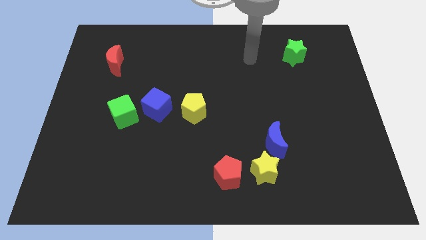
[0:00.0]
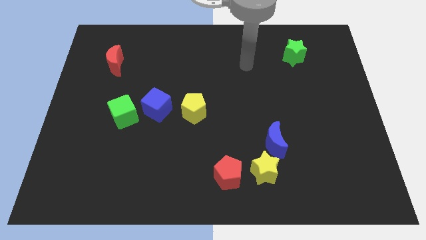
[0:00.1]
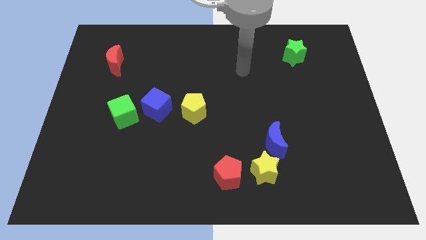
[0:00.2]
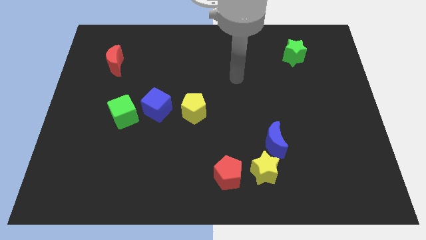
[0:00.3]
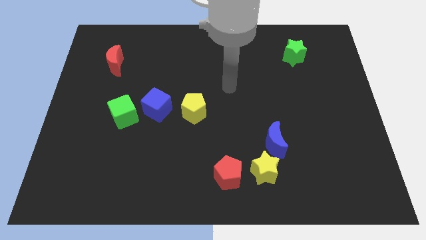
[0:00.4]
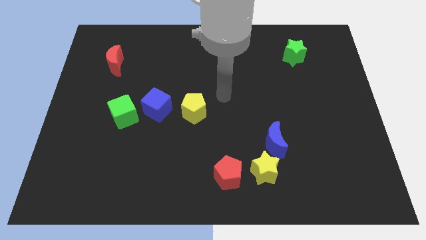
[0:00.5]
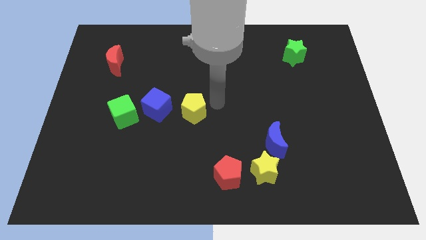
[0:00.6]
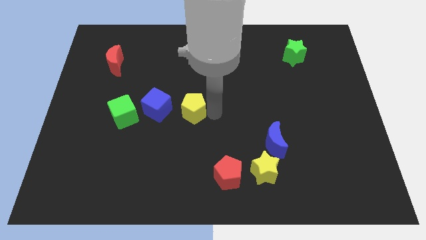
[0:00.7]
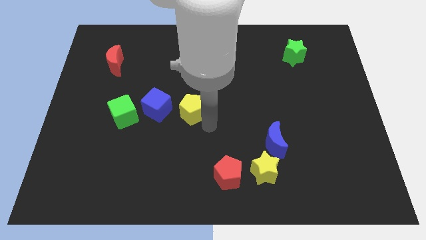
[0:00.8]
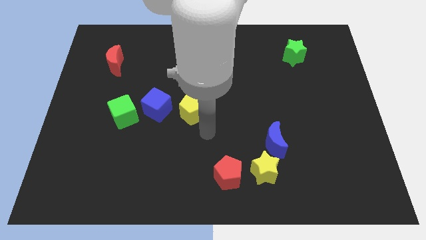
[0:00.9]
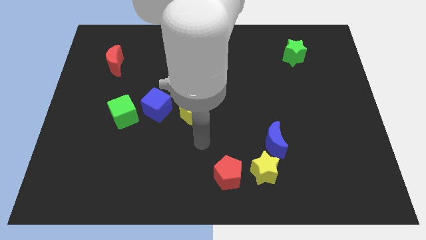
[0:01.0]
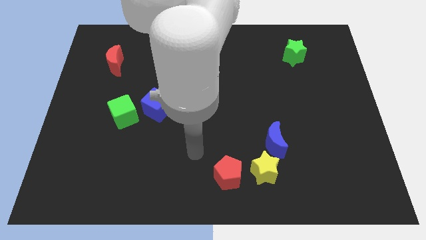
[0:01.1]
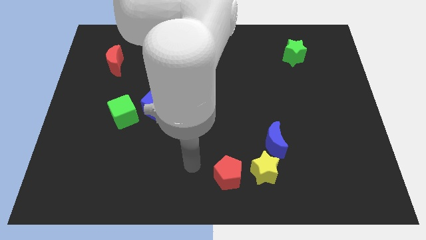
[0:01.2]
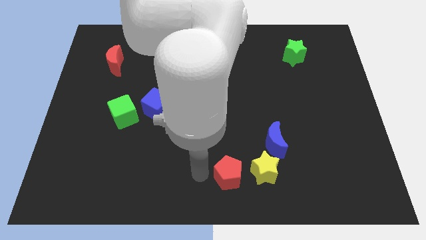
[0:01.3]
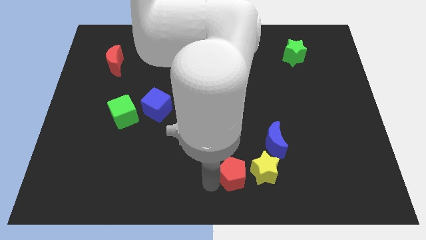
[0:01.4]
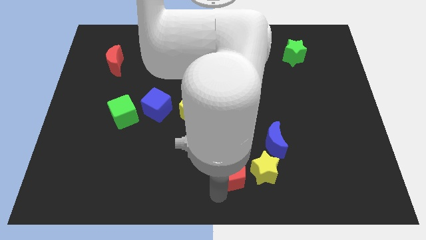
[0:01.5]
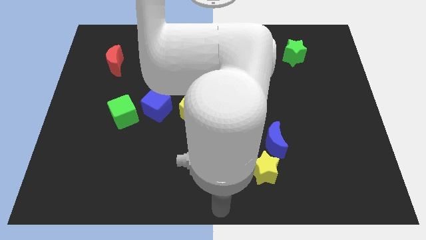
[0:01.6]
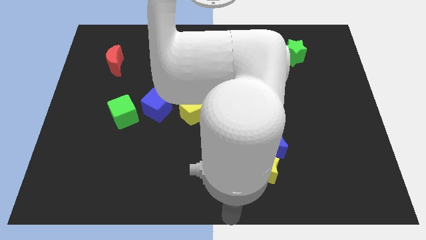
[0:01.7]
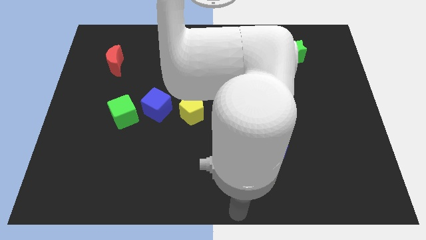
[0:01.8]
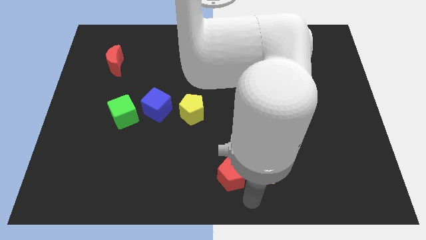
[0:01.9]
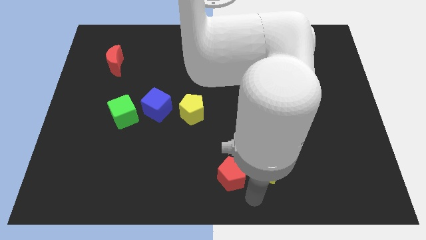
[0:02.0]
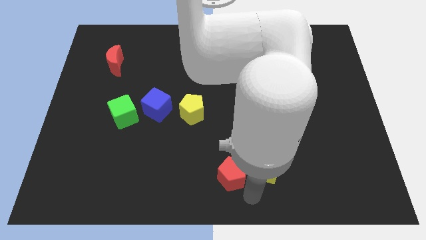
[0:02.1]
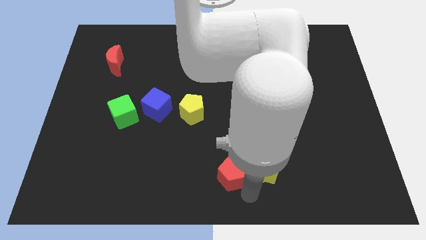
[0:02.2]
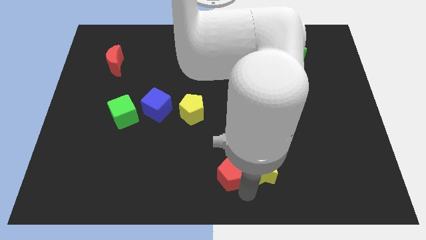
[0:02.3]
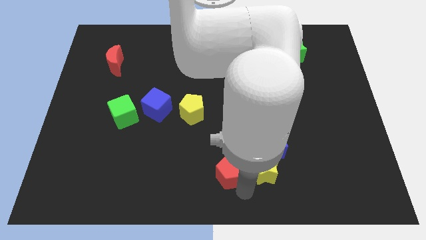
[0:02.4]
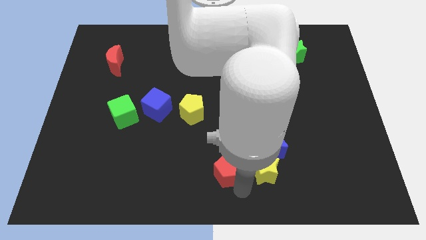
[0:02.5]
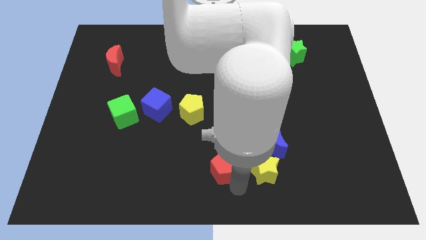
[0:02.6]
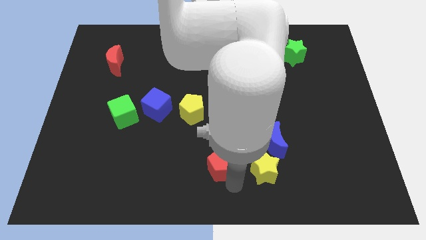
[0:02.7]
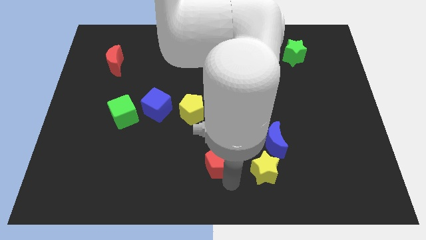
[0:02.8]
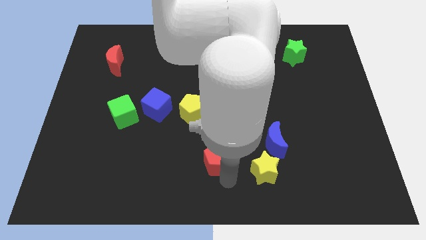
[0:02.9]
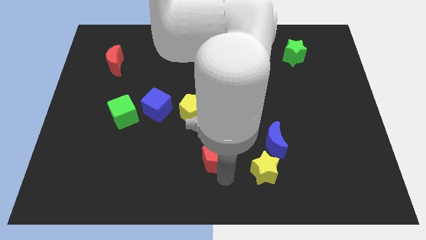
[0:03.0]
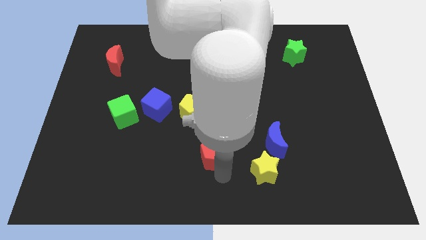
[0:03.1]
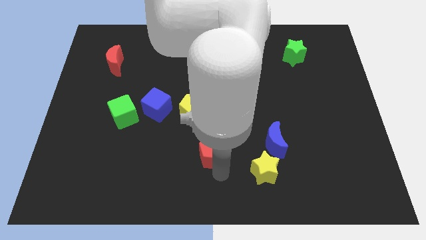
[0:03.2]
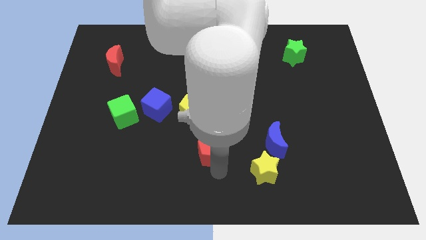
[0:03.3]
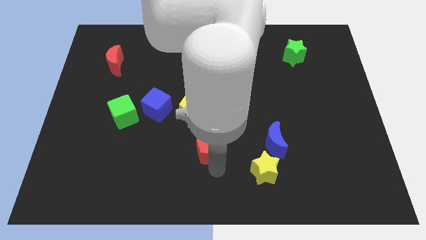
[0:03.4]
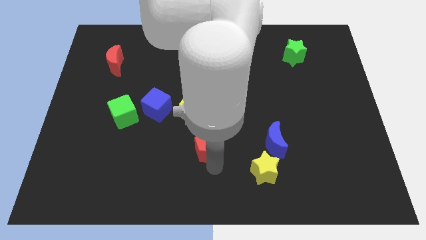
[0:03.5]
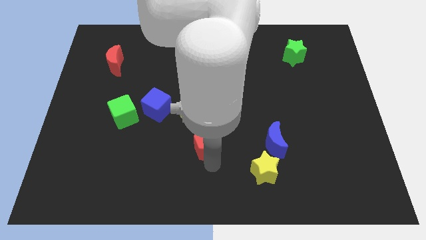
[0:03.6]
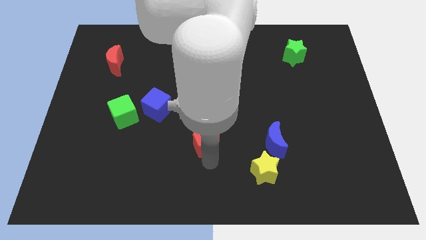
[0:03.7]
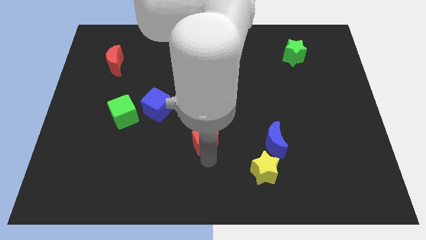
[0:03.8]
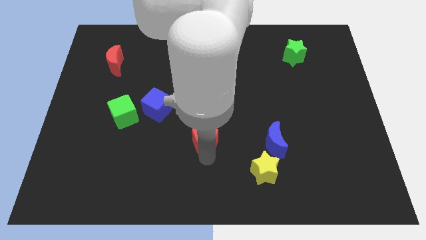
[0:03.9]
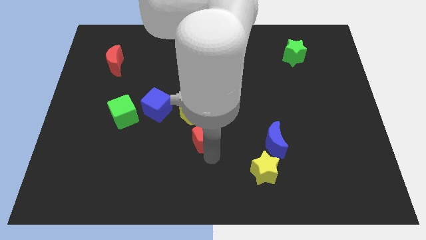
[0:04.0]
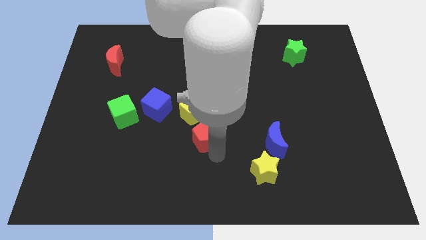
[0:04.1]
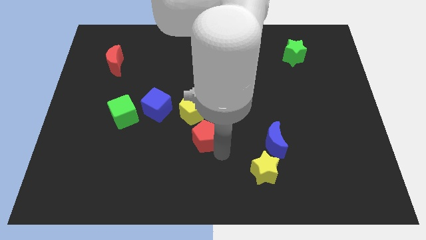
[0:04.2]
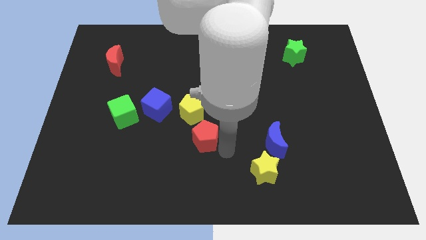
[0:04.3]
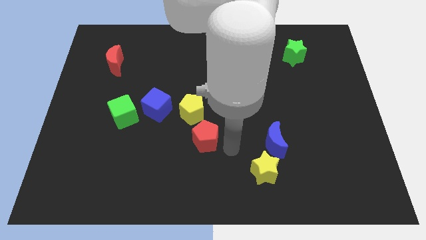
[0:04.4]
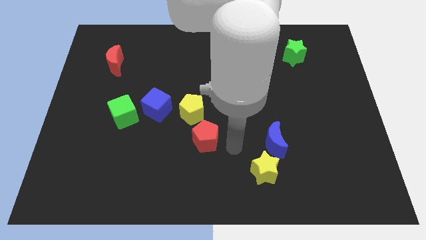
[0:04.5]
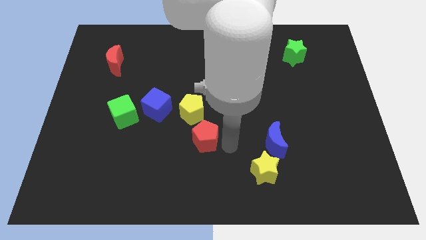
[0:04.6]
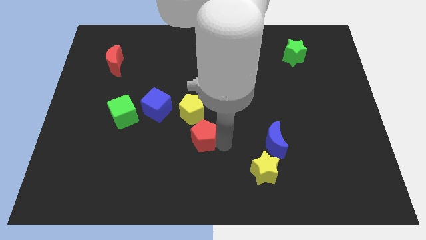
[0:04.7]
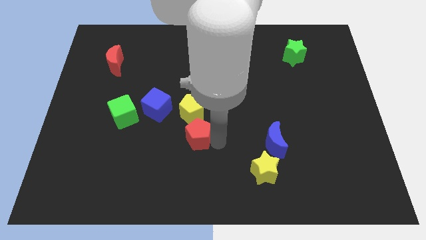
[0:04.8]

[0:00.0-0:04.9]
slide the red pentagon to the bottom right side of the blue cube

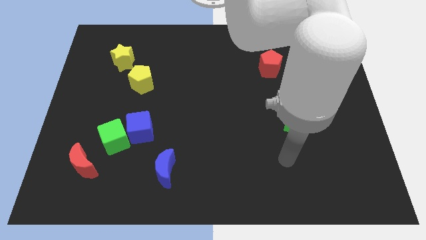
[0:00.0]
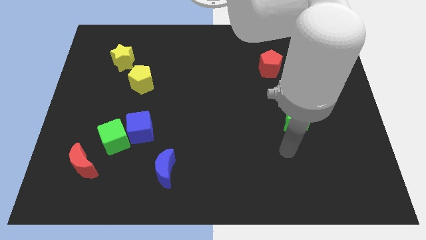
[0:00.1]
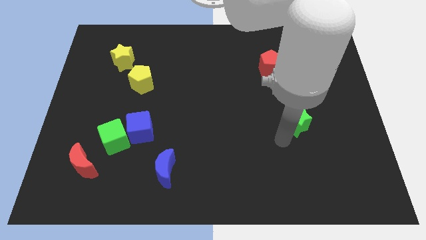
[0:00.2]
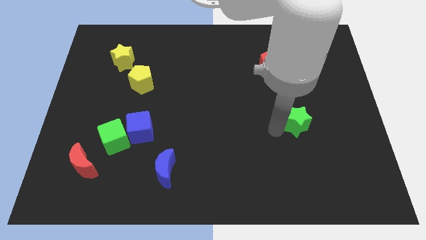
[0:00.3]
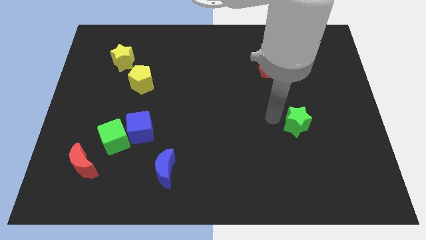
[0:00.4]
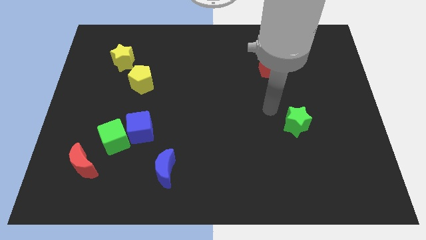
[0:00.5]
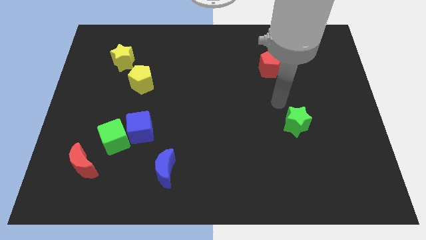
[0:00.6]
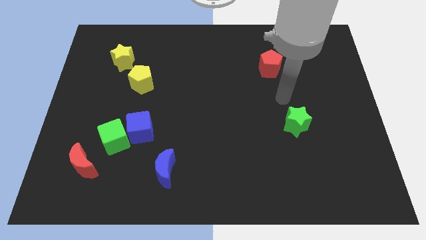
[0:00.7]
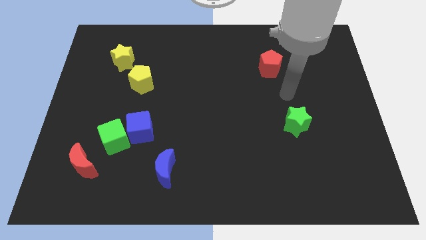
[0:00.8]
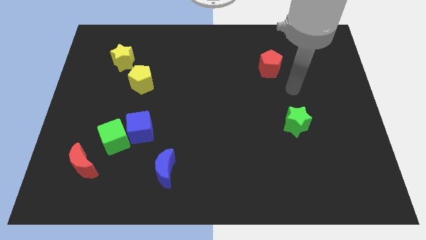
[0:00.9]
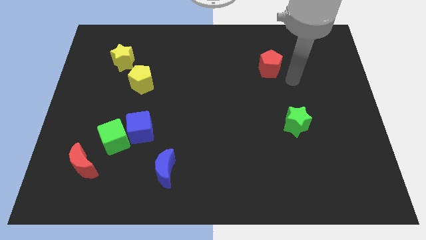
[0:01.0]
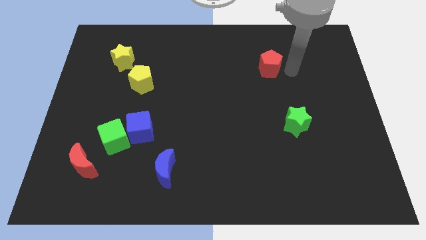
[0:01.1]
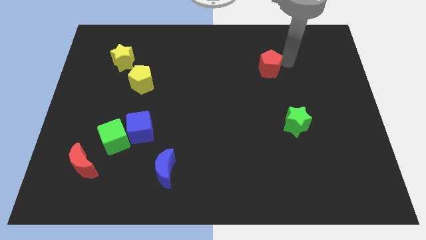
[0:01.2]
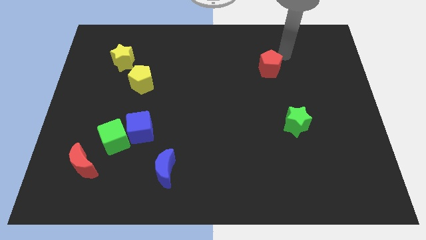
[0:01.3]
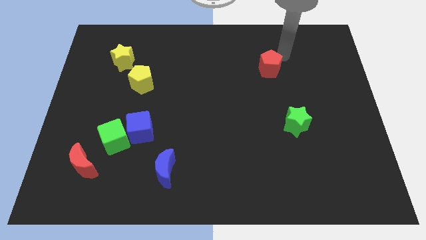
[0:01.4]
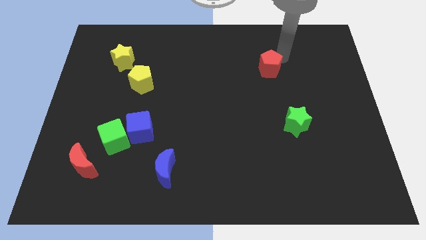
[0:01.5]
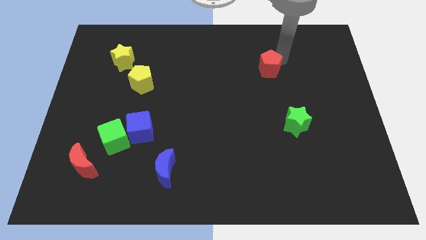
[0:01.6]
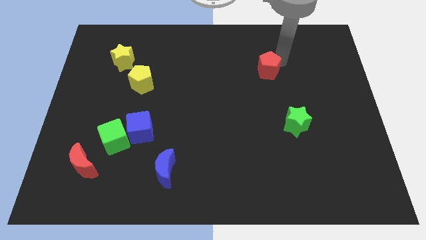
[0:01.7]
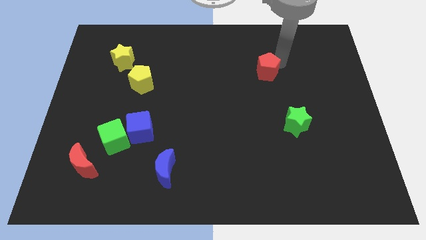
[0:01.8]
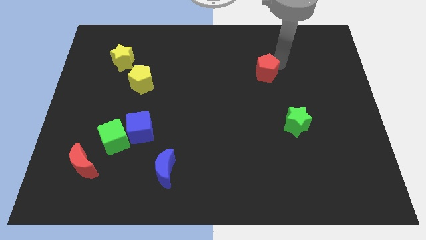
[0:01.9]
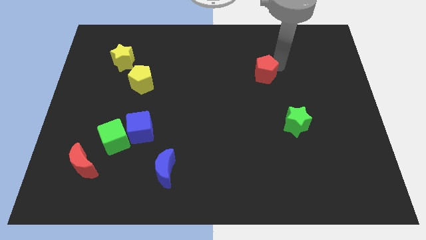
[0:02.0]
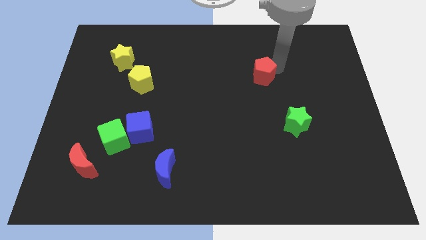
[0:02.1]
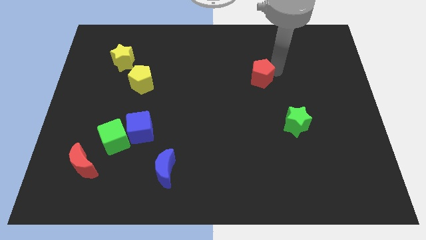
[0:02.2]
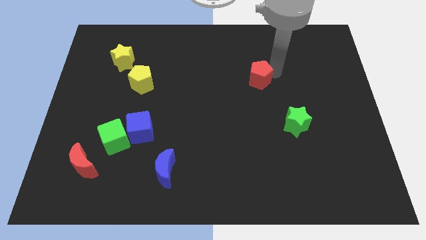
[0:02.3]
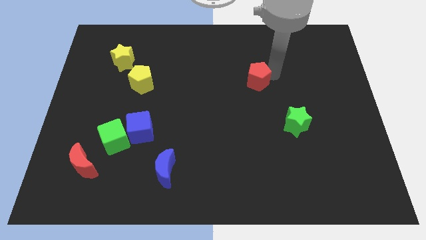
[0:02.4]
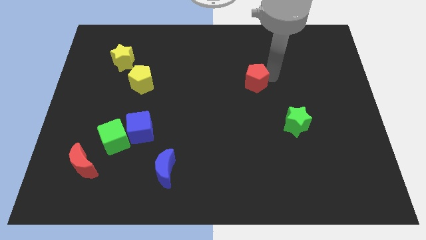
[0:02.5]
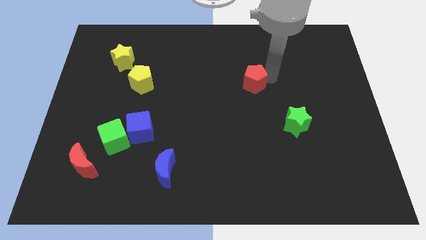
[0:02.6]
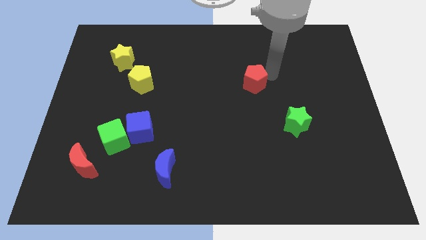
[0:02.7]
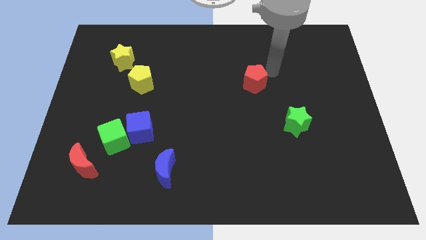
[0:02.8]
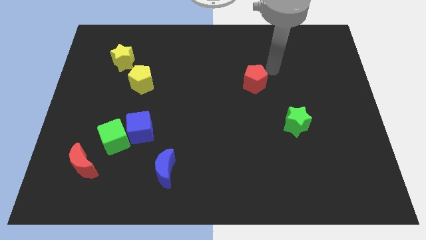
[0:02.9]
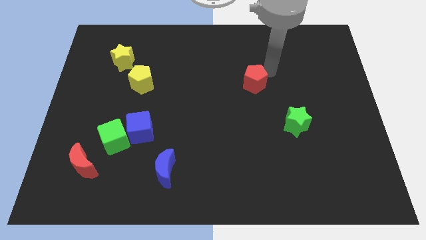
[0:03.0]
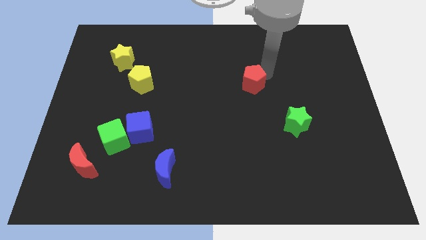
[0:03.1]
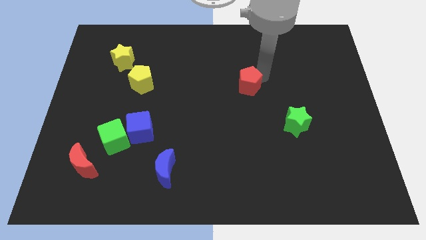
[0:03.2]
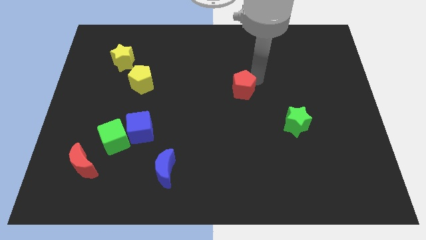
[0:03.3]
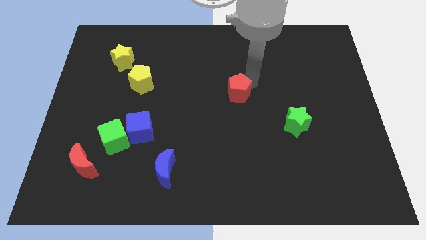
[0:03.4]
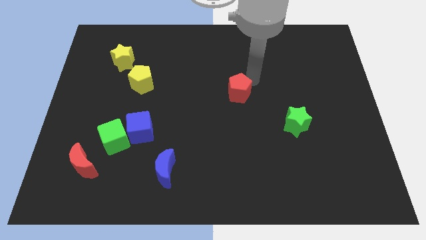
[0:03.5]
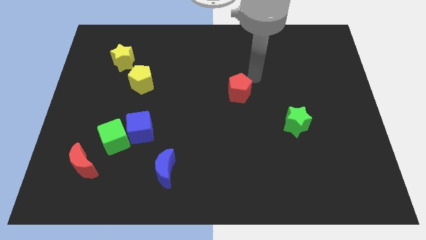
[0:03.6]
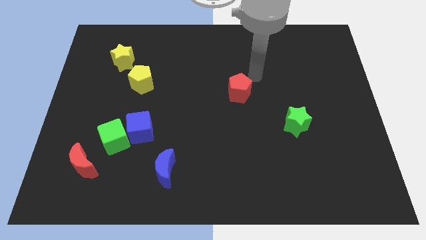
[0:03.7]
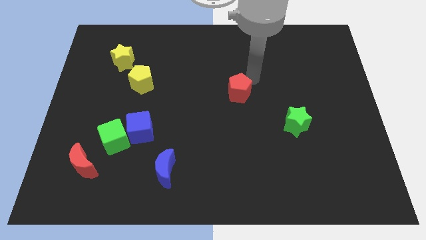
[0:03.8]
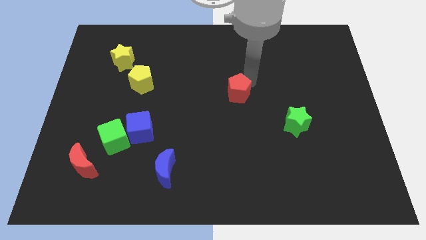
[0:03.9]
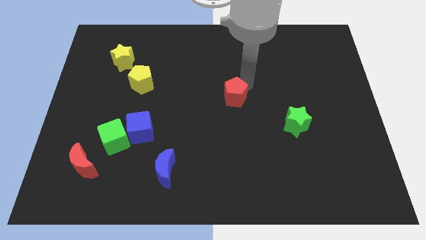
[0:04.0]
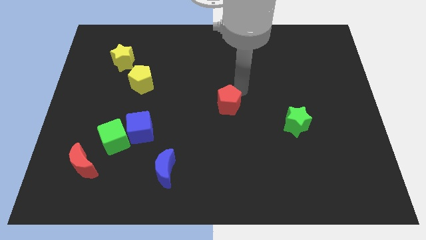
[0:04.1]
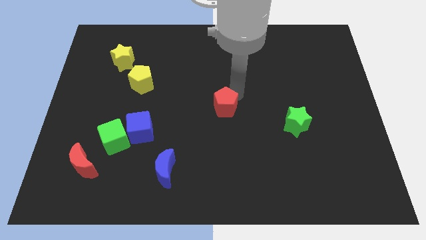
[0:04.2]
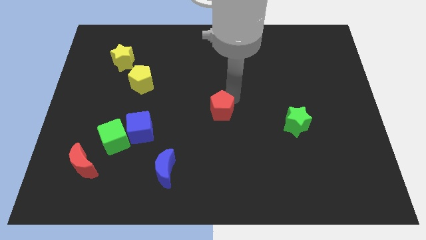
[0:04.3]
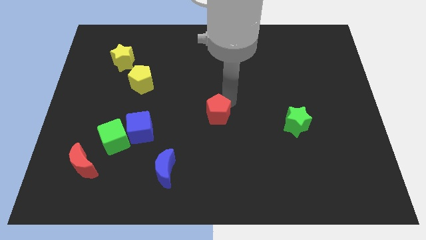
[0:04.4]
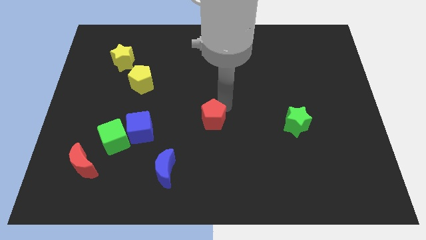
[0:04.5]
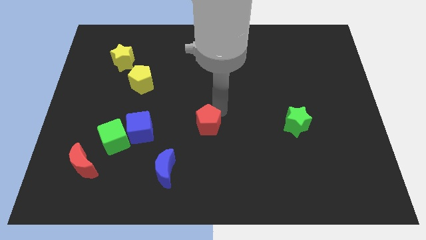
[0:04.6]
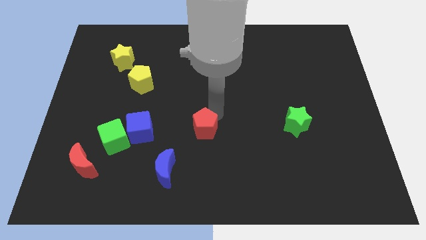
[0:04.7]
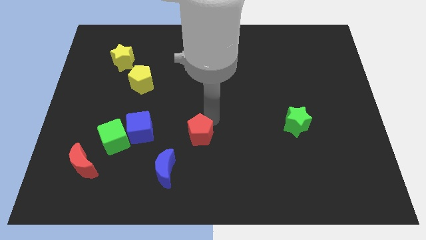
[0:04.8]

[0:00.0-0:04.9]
move the red pentagon to the top right of the blue moon
